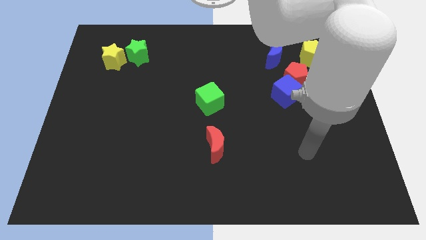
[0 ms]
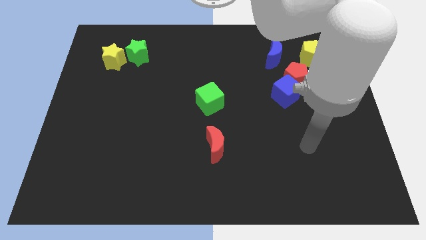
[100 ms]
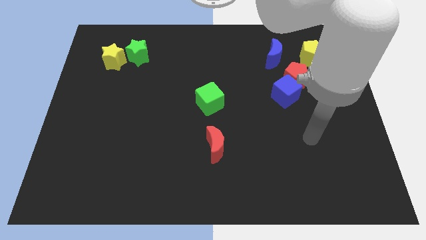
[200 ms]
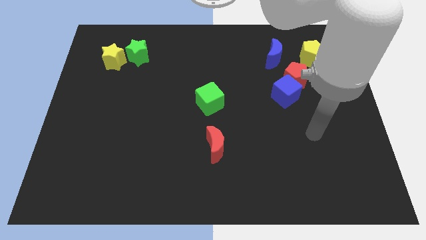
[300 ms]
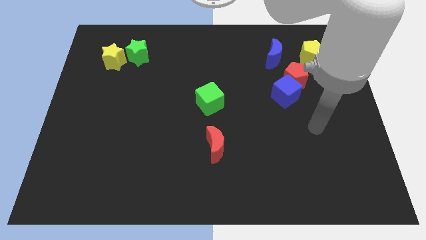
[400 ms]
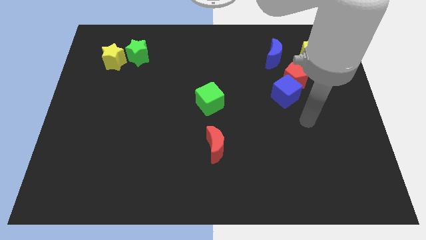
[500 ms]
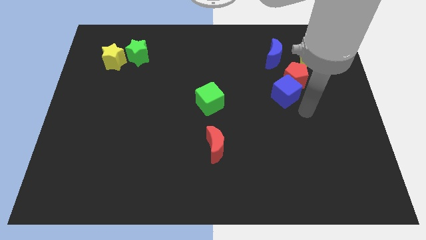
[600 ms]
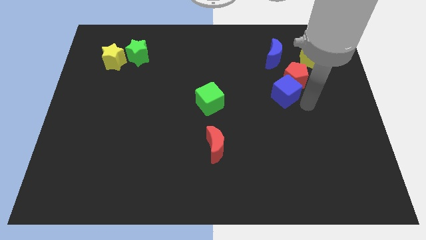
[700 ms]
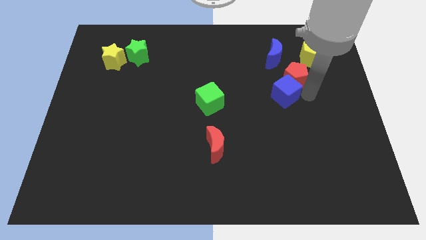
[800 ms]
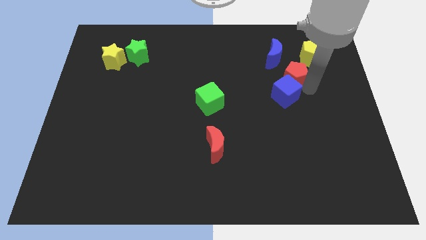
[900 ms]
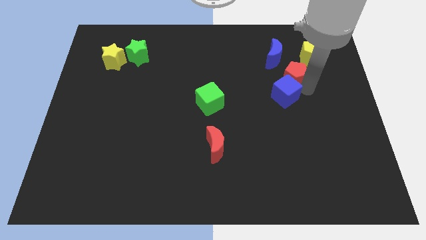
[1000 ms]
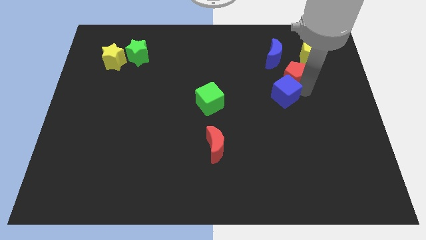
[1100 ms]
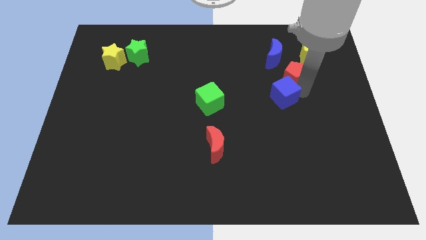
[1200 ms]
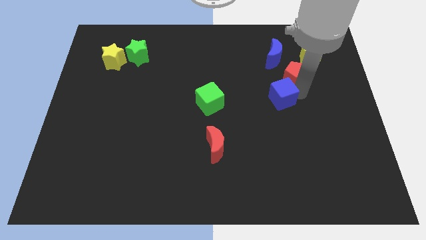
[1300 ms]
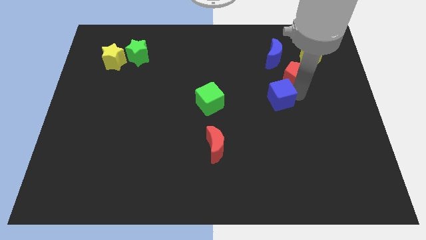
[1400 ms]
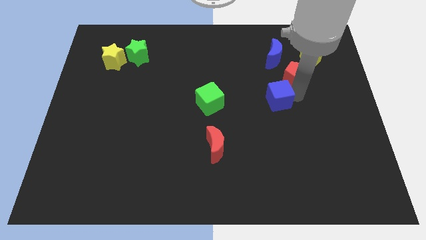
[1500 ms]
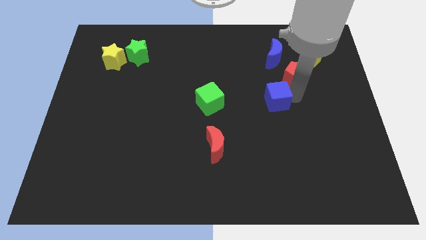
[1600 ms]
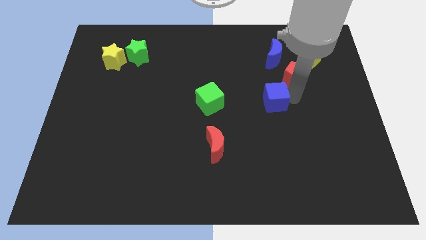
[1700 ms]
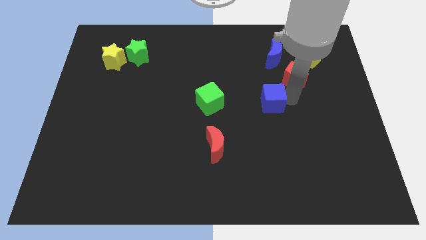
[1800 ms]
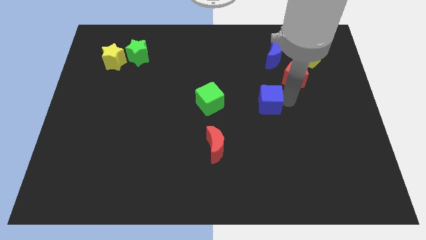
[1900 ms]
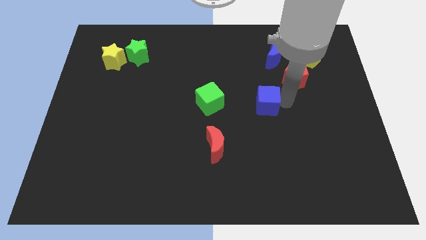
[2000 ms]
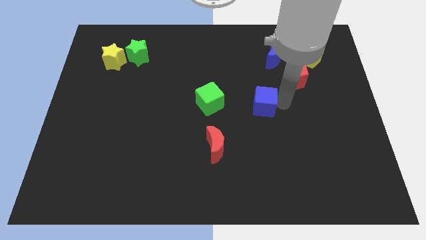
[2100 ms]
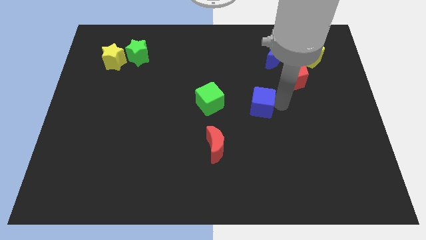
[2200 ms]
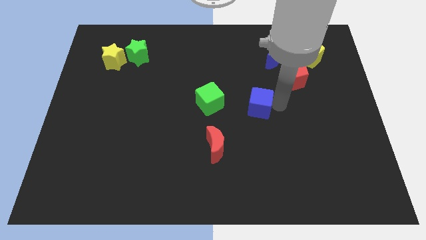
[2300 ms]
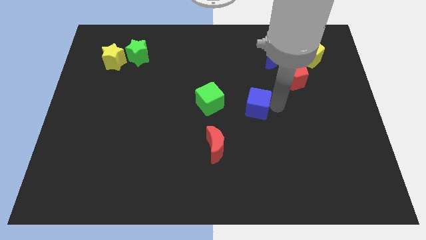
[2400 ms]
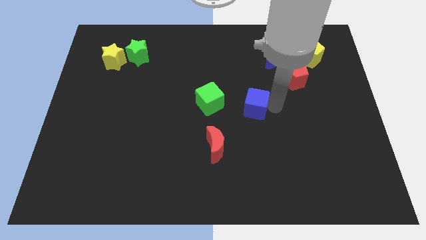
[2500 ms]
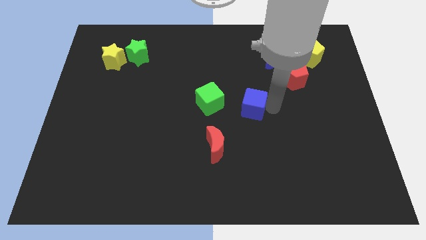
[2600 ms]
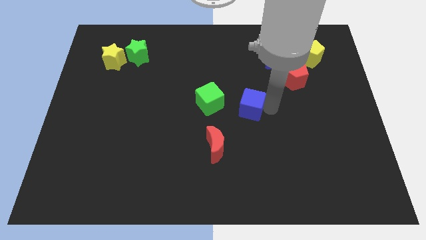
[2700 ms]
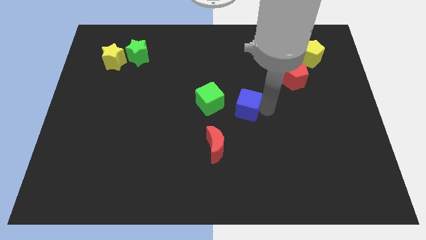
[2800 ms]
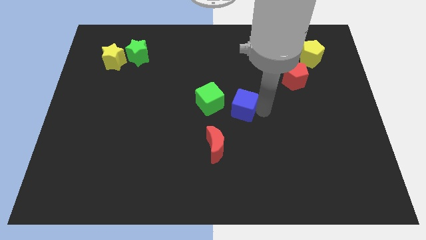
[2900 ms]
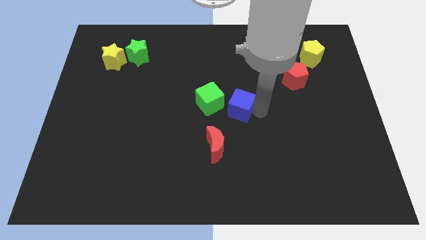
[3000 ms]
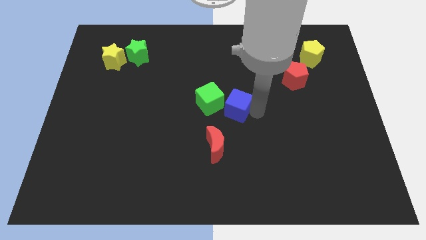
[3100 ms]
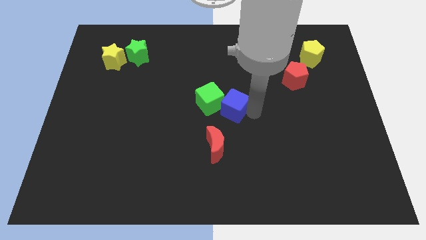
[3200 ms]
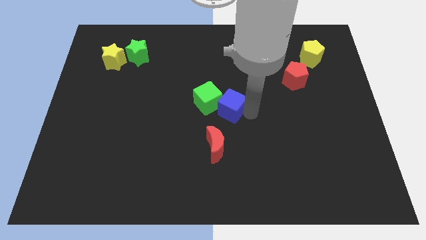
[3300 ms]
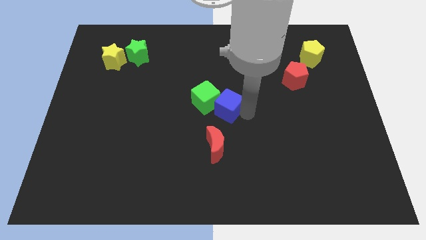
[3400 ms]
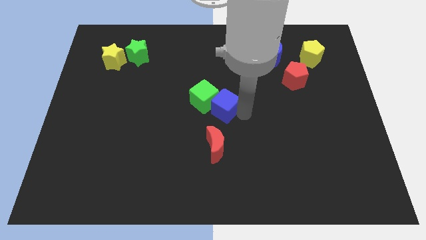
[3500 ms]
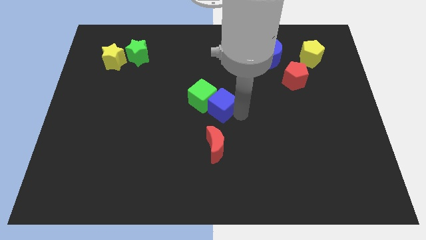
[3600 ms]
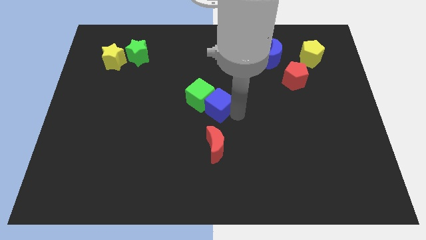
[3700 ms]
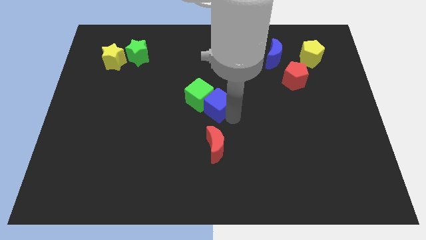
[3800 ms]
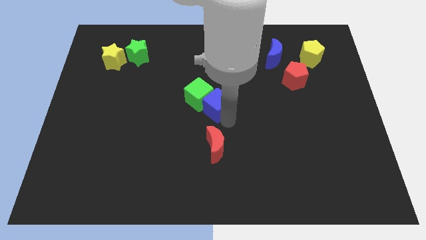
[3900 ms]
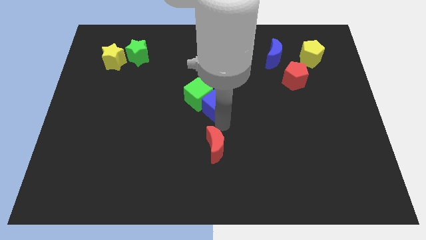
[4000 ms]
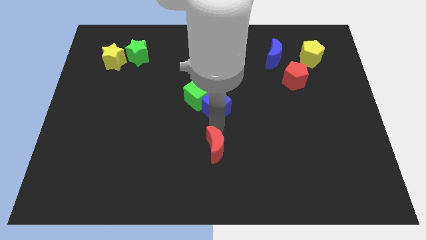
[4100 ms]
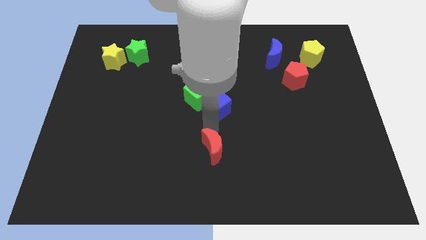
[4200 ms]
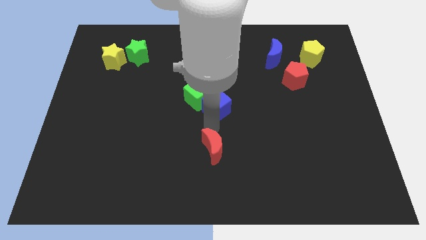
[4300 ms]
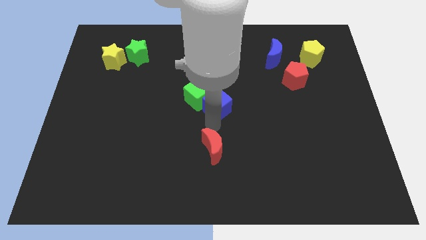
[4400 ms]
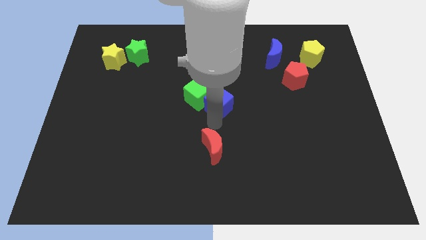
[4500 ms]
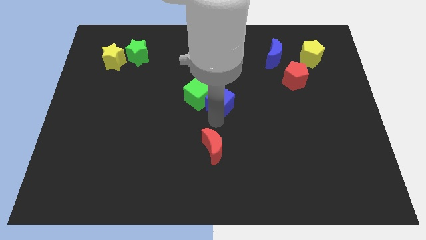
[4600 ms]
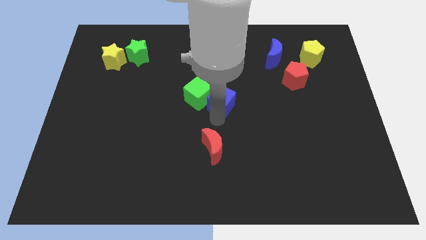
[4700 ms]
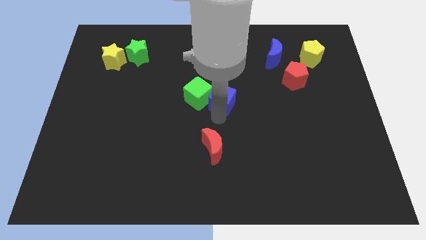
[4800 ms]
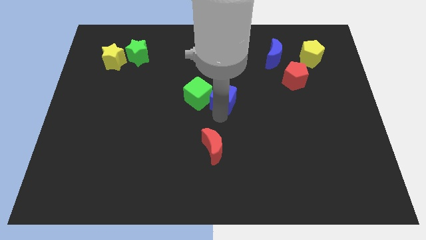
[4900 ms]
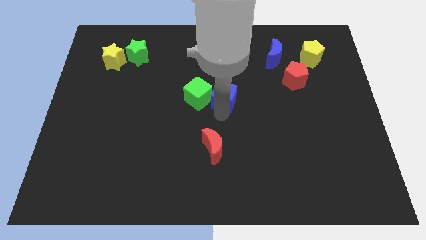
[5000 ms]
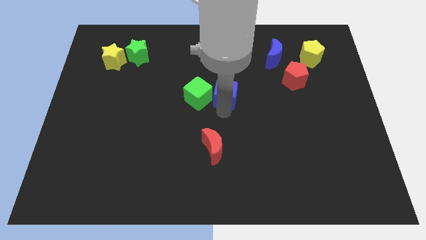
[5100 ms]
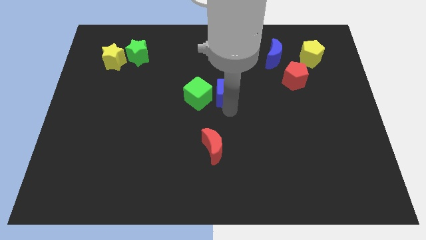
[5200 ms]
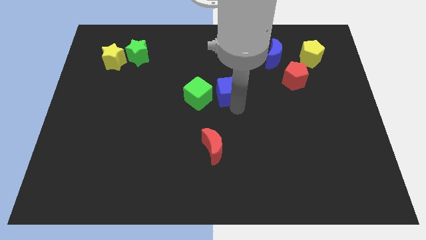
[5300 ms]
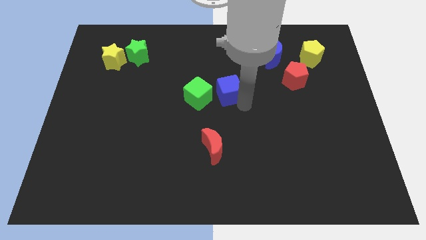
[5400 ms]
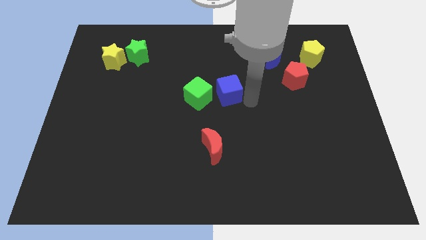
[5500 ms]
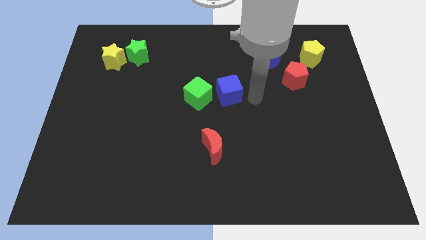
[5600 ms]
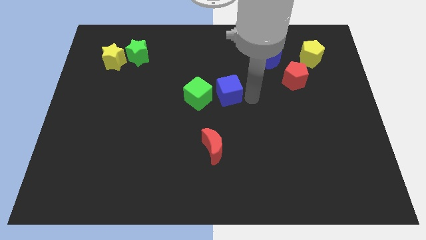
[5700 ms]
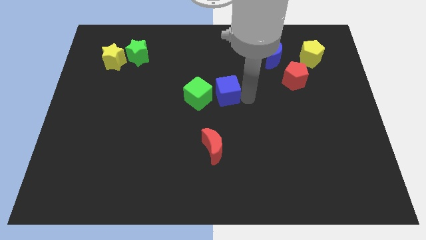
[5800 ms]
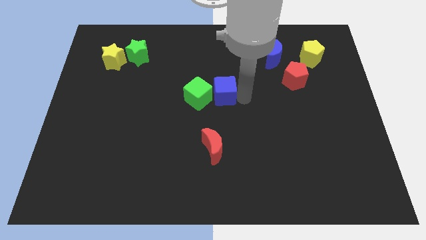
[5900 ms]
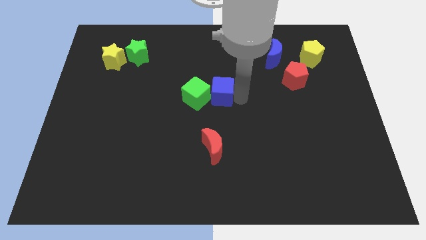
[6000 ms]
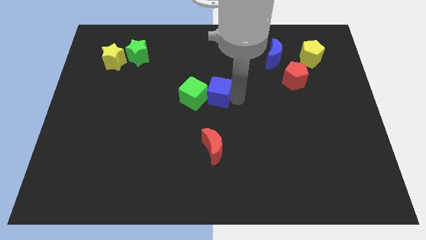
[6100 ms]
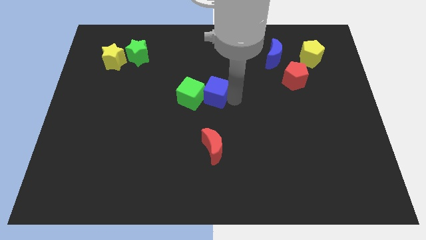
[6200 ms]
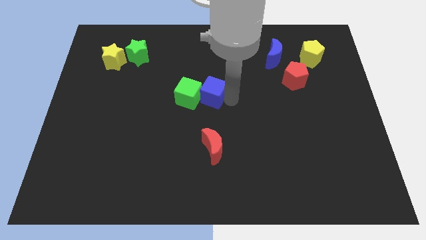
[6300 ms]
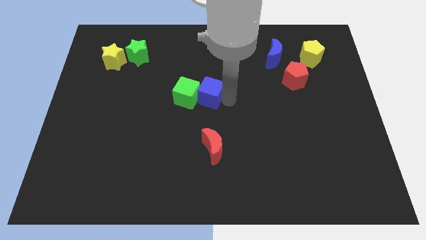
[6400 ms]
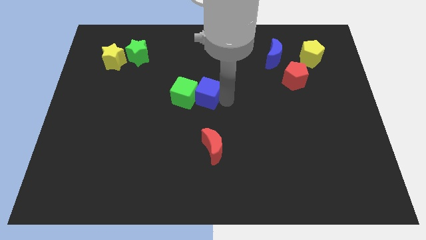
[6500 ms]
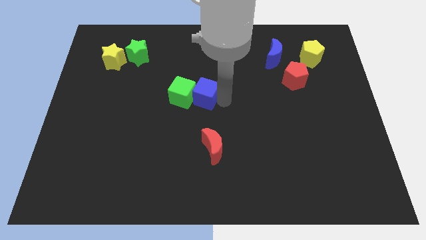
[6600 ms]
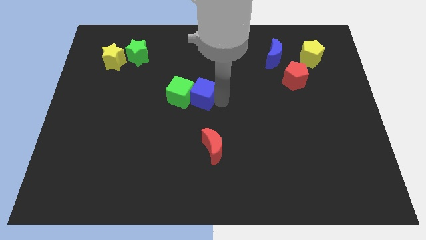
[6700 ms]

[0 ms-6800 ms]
push the blue cube to the left

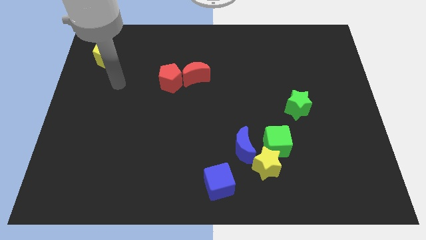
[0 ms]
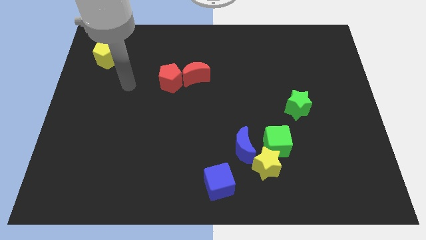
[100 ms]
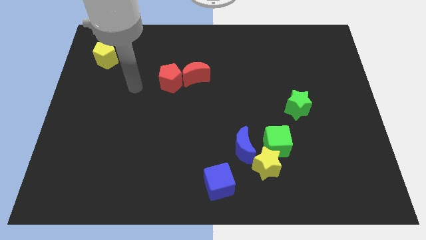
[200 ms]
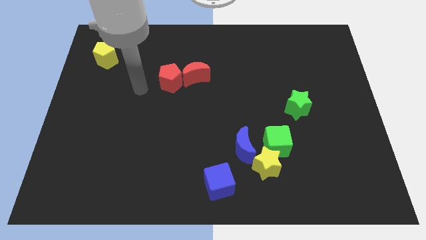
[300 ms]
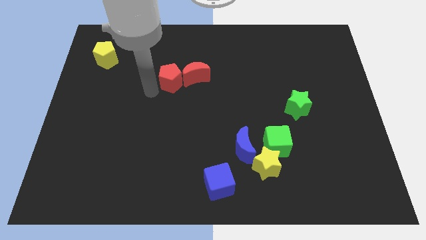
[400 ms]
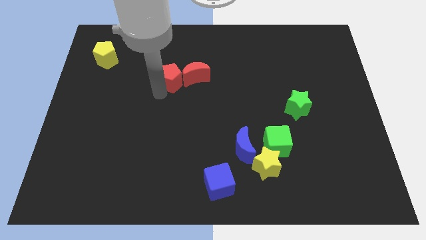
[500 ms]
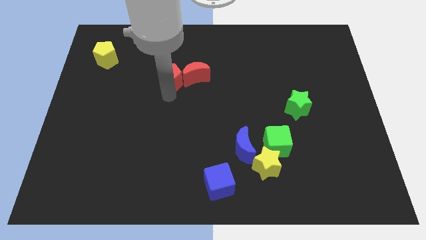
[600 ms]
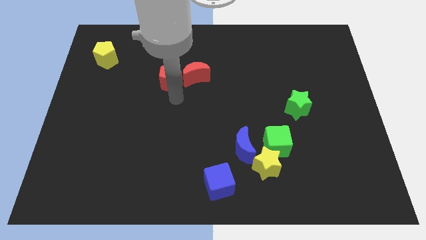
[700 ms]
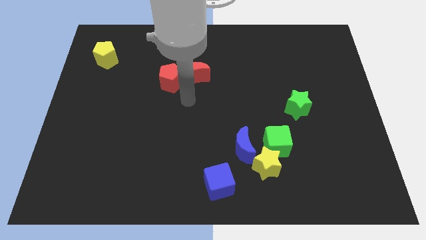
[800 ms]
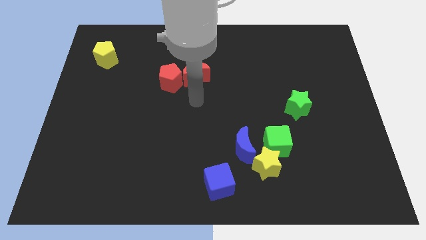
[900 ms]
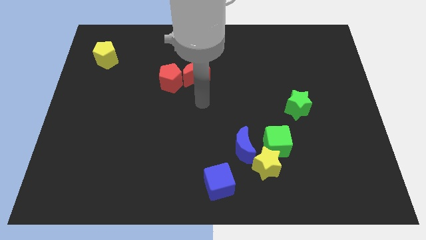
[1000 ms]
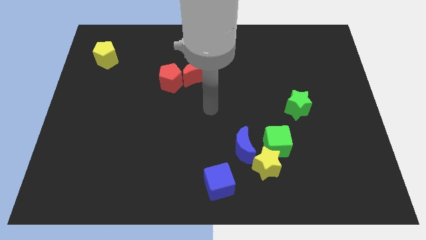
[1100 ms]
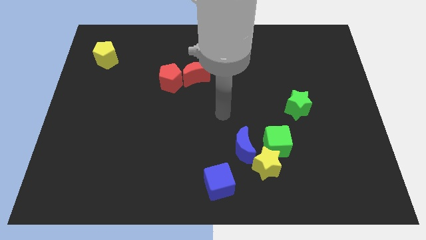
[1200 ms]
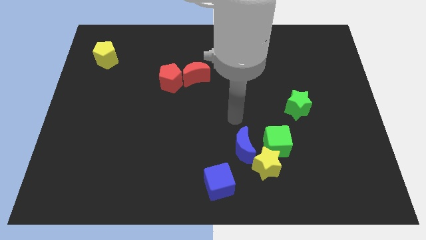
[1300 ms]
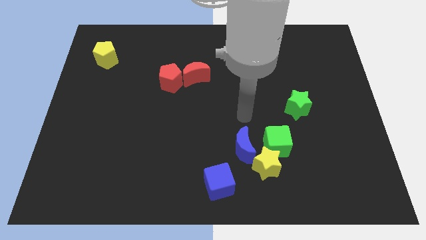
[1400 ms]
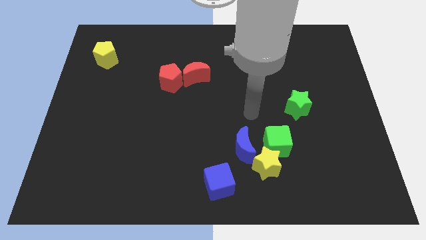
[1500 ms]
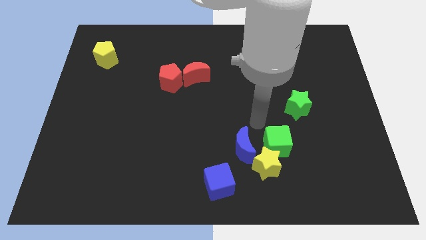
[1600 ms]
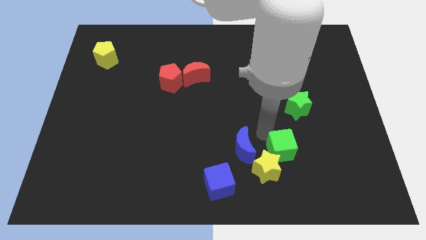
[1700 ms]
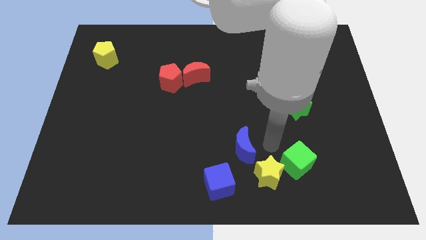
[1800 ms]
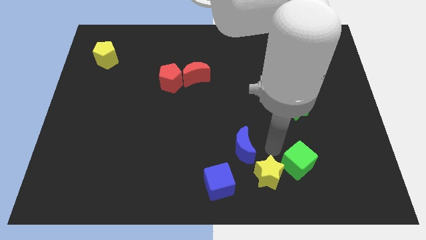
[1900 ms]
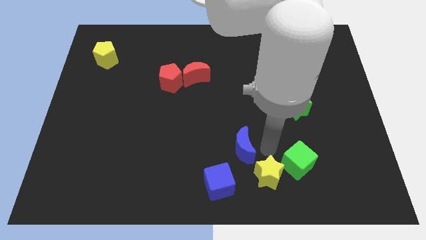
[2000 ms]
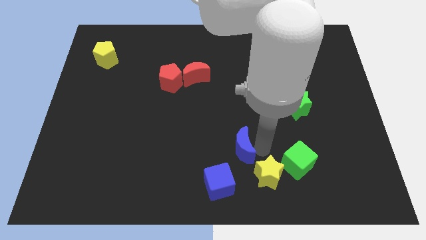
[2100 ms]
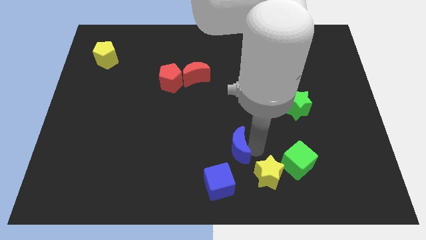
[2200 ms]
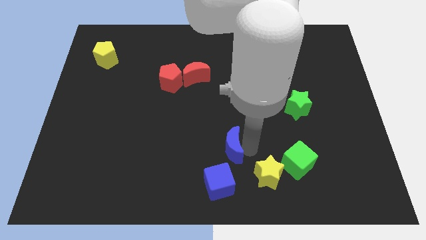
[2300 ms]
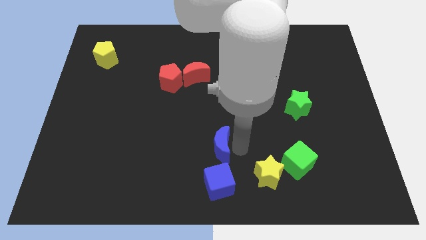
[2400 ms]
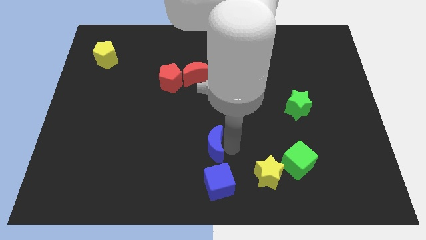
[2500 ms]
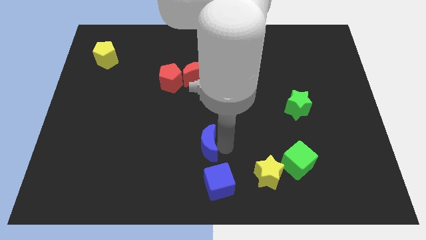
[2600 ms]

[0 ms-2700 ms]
slightly move the blue moon to the left
